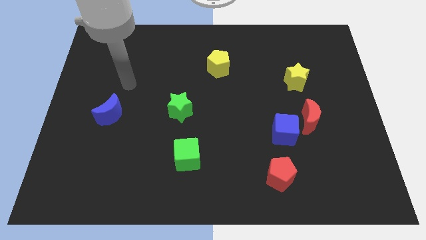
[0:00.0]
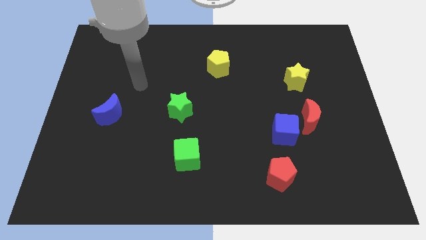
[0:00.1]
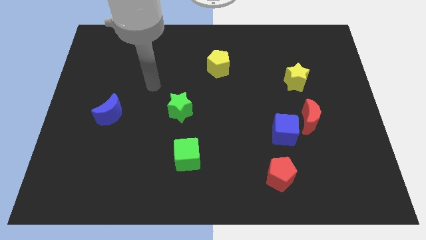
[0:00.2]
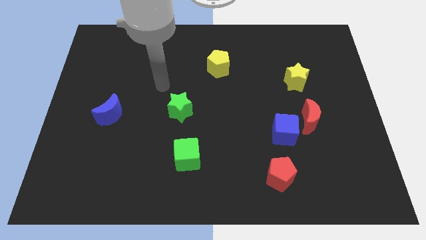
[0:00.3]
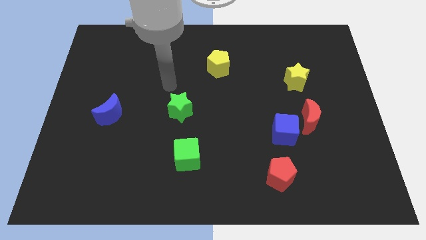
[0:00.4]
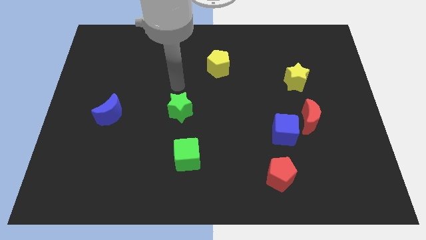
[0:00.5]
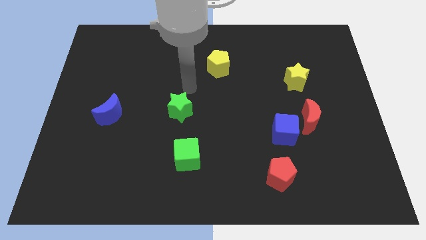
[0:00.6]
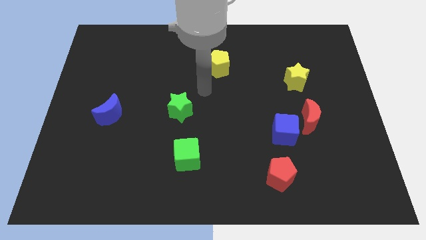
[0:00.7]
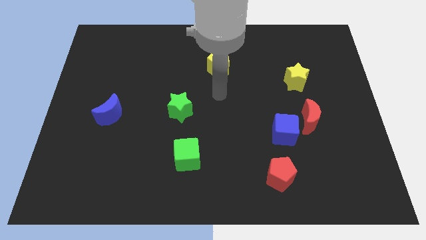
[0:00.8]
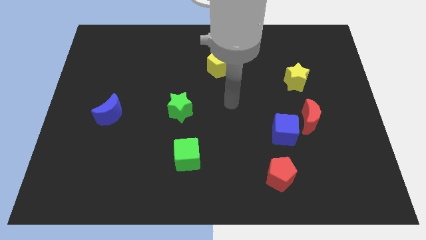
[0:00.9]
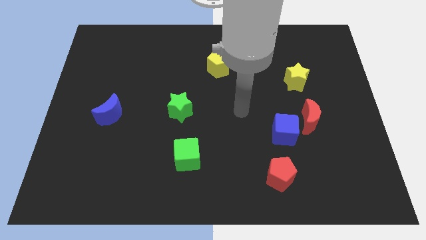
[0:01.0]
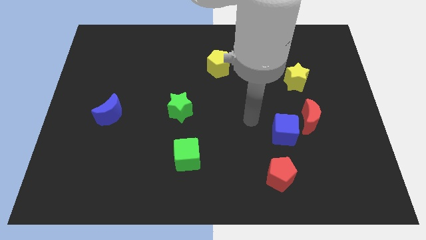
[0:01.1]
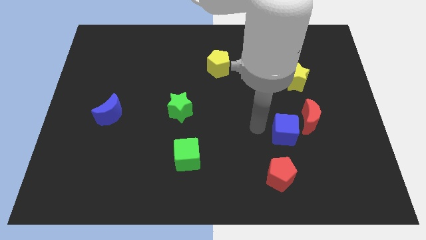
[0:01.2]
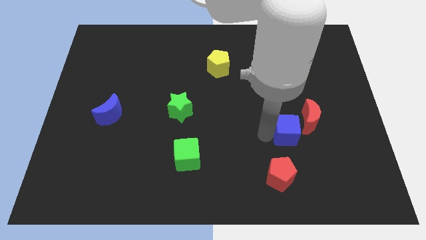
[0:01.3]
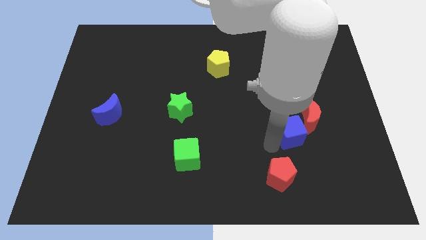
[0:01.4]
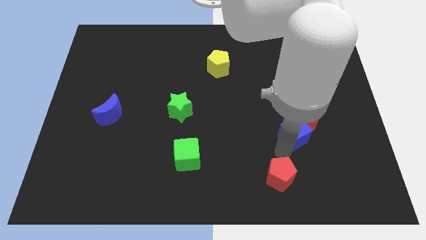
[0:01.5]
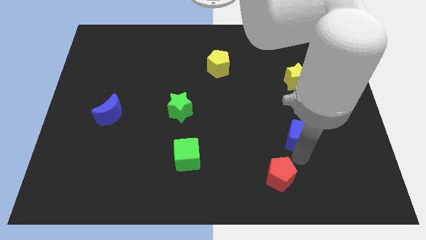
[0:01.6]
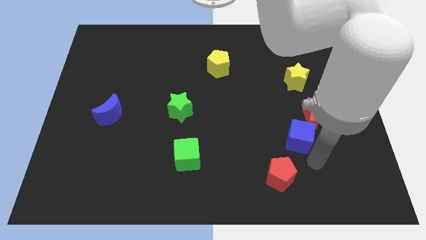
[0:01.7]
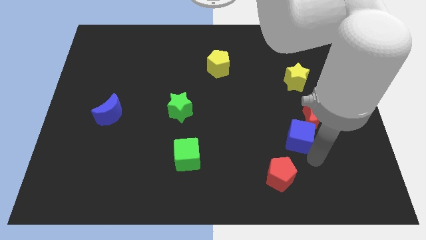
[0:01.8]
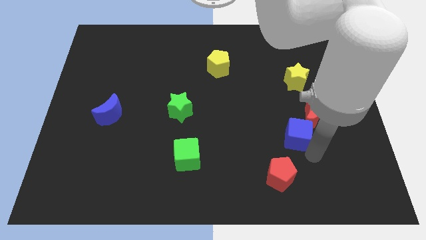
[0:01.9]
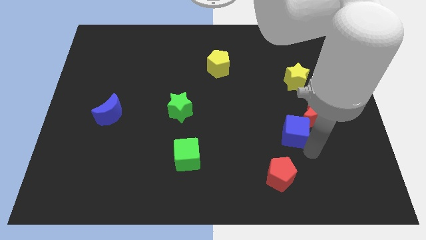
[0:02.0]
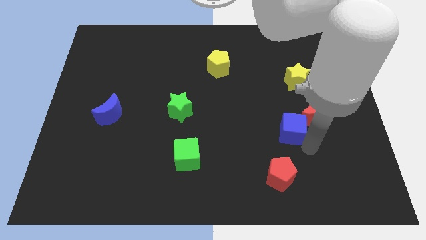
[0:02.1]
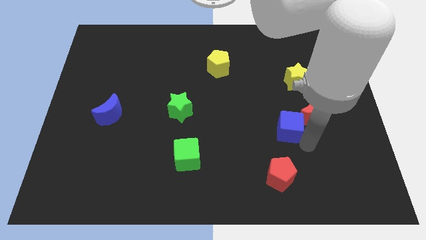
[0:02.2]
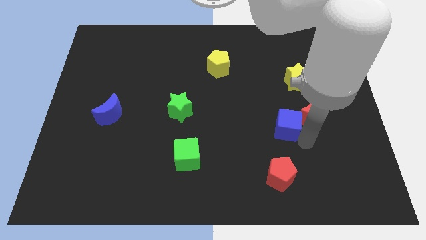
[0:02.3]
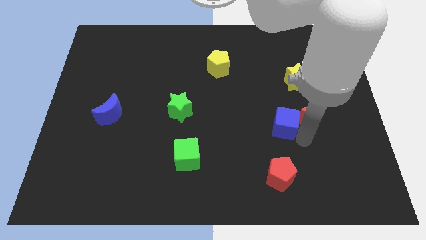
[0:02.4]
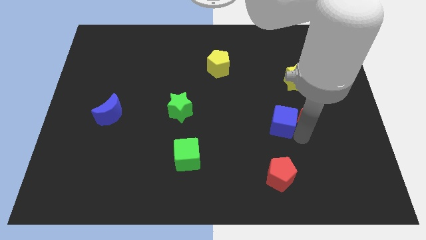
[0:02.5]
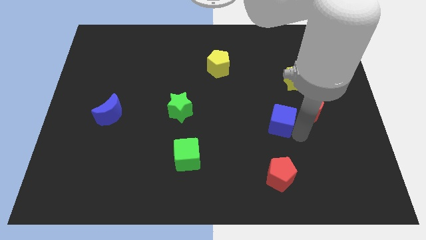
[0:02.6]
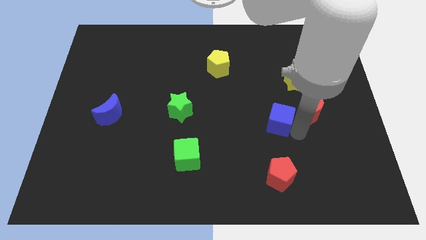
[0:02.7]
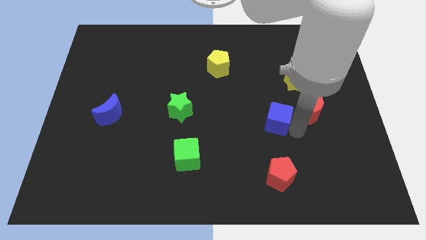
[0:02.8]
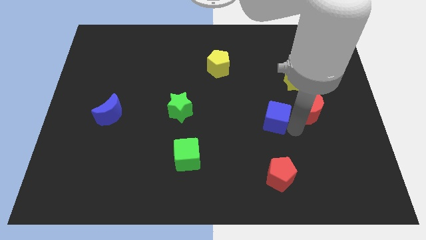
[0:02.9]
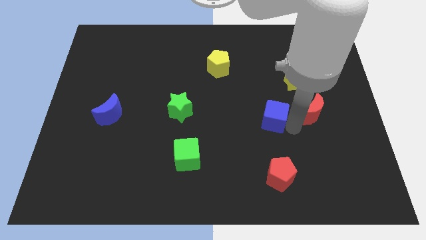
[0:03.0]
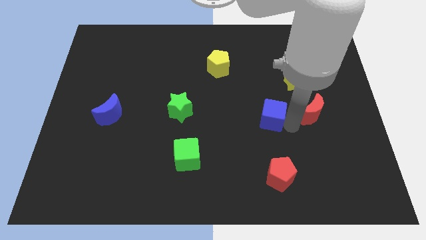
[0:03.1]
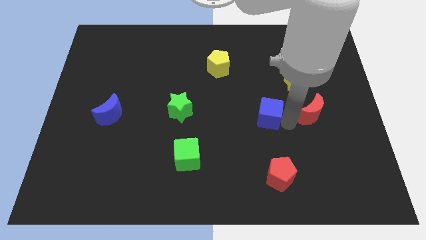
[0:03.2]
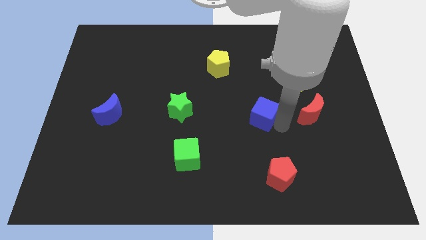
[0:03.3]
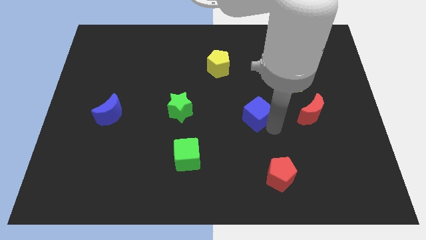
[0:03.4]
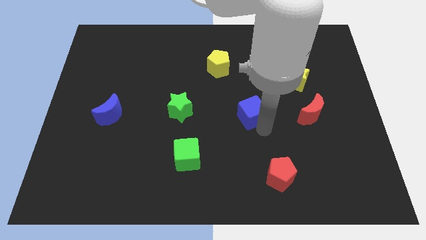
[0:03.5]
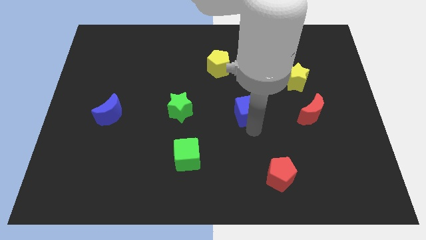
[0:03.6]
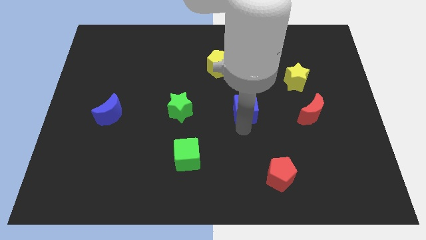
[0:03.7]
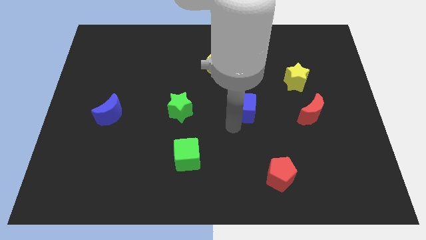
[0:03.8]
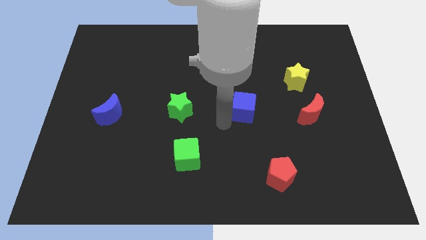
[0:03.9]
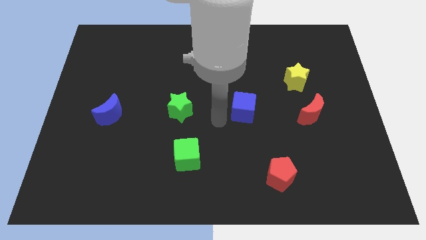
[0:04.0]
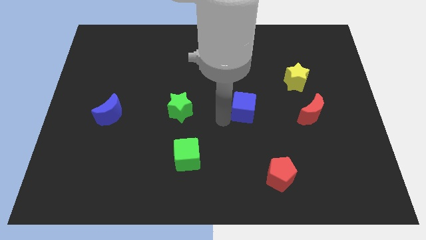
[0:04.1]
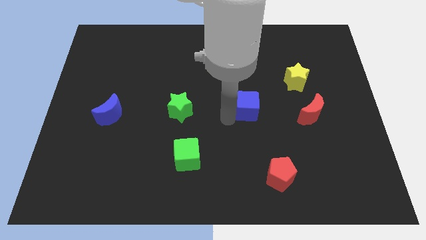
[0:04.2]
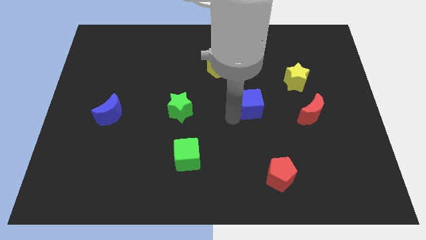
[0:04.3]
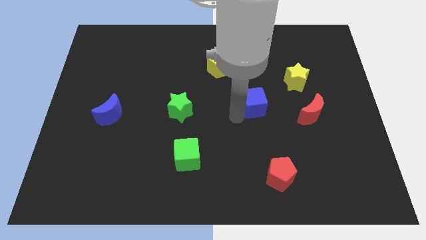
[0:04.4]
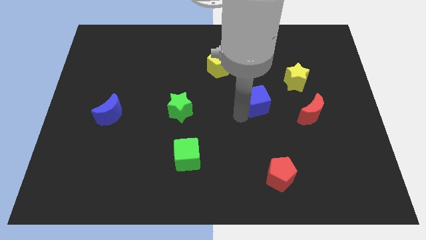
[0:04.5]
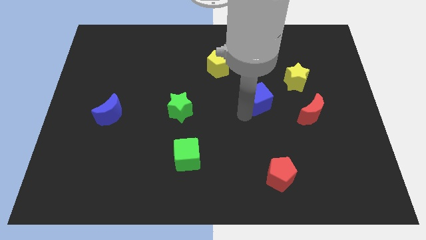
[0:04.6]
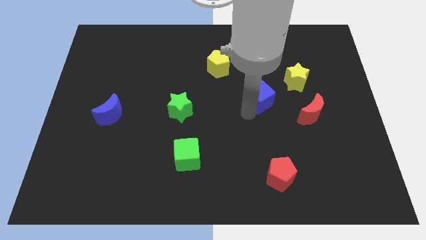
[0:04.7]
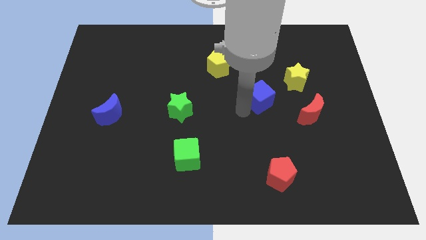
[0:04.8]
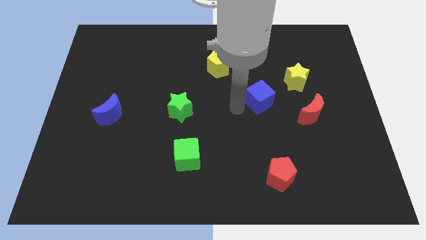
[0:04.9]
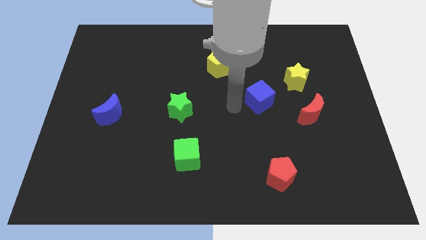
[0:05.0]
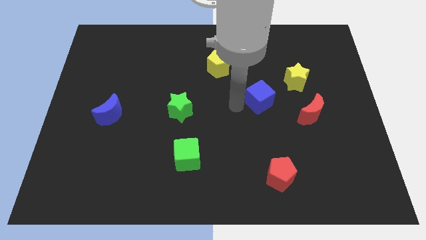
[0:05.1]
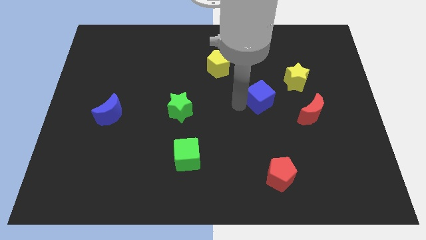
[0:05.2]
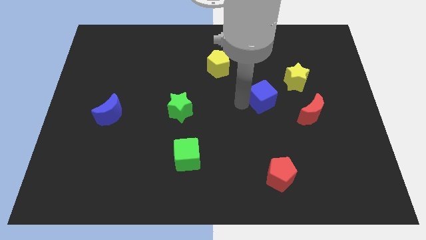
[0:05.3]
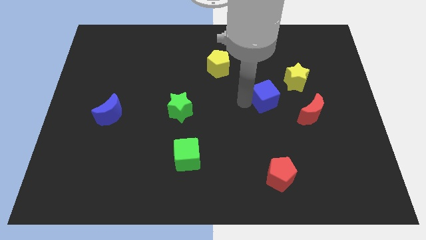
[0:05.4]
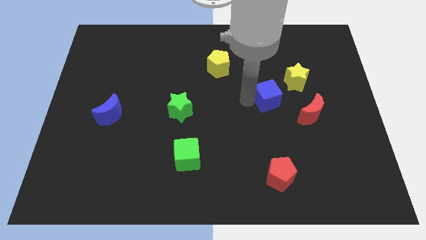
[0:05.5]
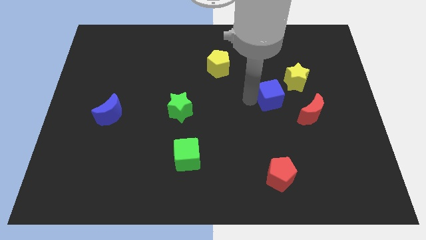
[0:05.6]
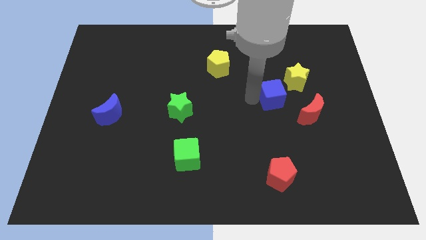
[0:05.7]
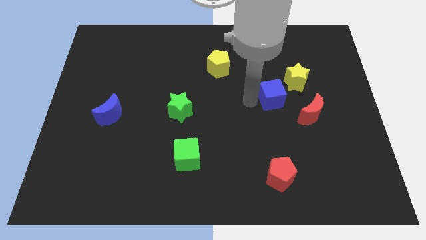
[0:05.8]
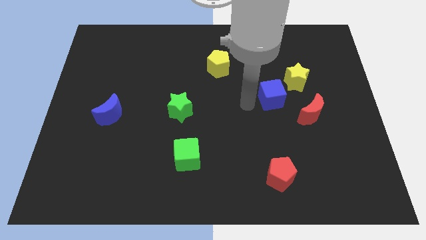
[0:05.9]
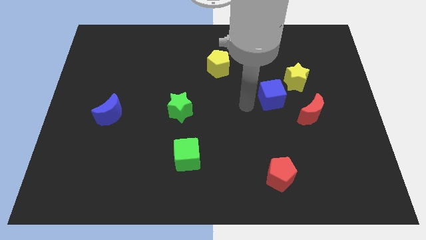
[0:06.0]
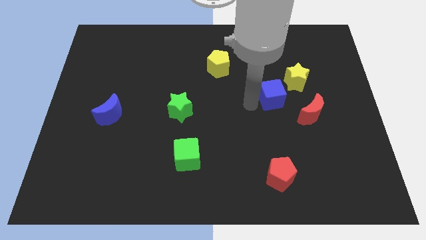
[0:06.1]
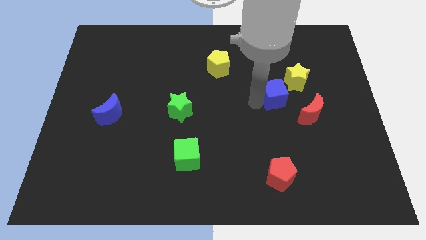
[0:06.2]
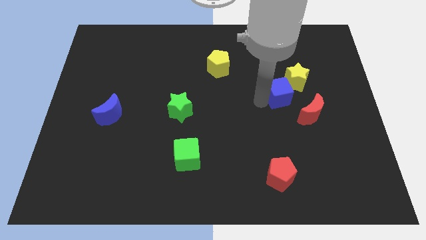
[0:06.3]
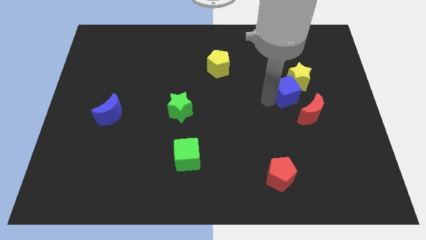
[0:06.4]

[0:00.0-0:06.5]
move the blue cube towards the yellow star

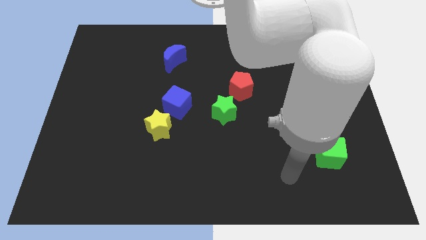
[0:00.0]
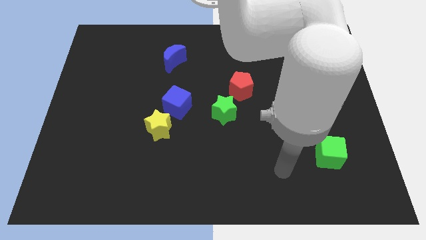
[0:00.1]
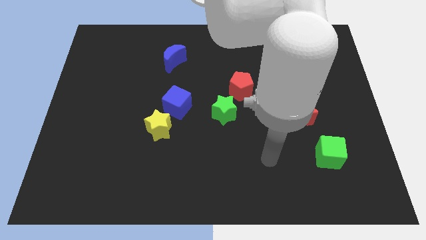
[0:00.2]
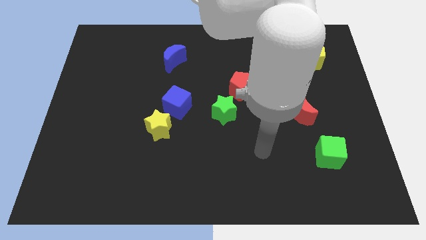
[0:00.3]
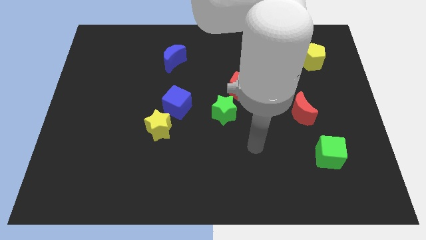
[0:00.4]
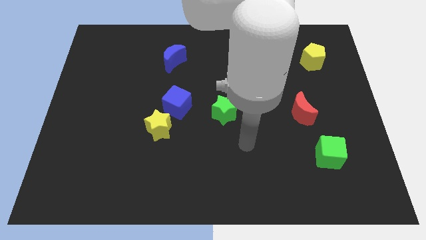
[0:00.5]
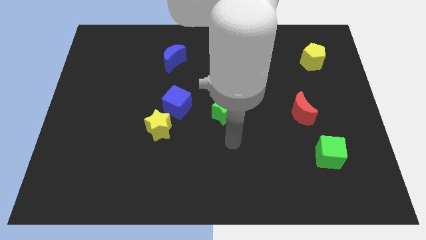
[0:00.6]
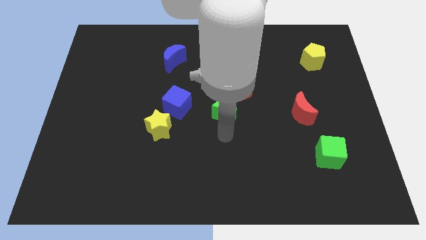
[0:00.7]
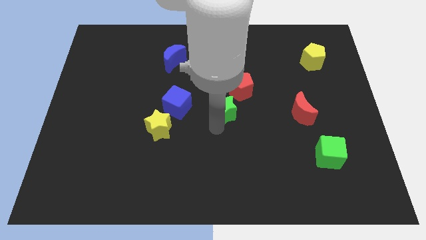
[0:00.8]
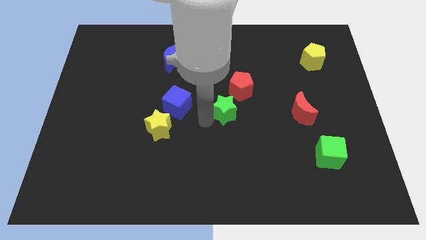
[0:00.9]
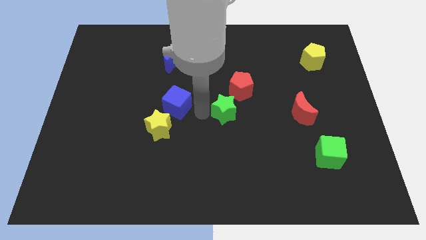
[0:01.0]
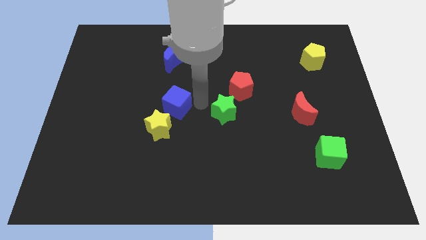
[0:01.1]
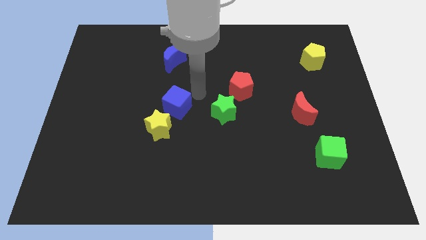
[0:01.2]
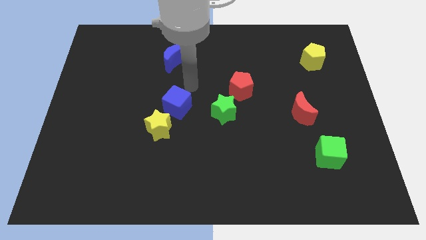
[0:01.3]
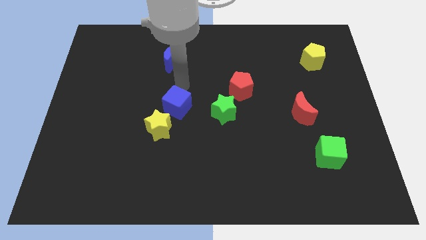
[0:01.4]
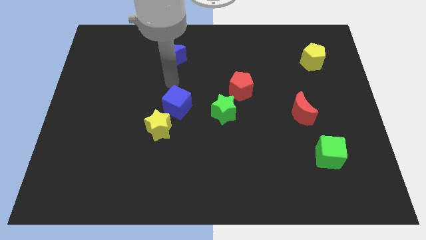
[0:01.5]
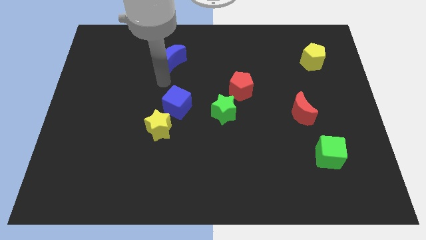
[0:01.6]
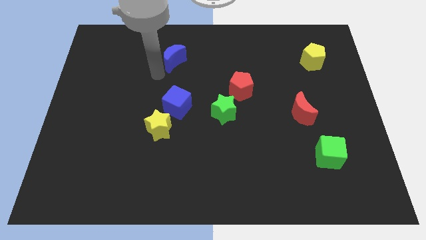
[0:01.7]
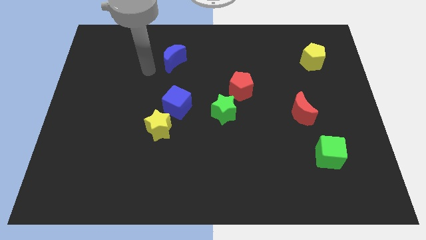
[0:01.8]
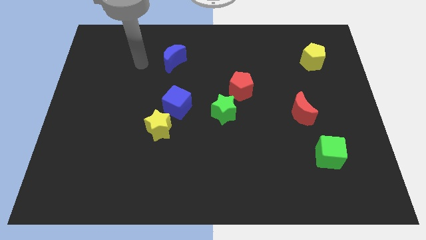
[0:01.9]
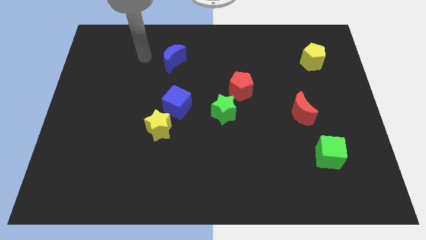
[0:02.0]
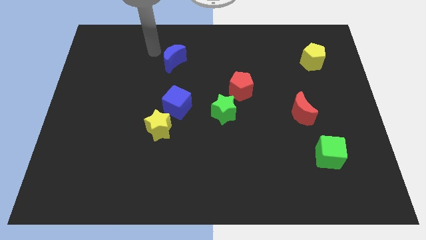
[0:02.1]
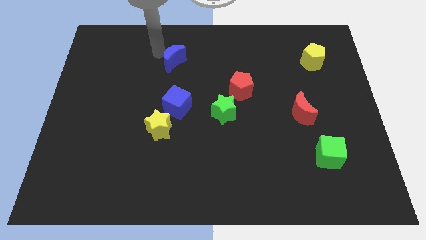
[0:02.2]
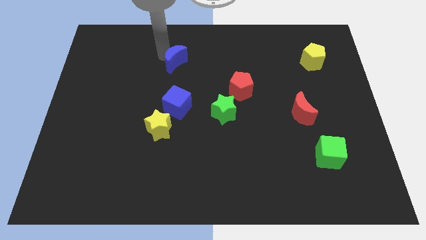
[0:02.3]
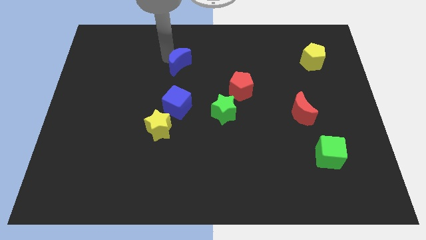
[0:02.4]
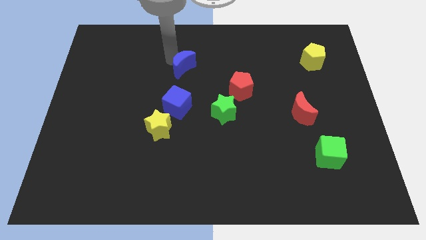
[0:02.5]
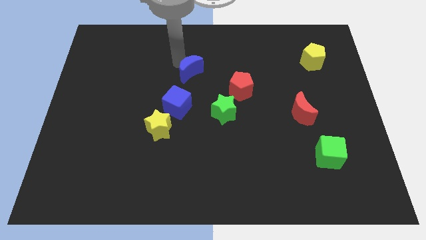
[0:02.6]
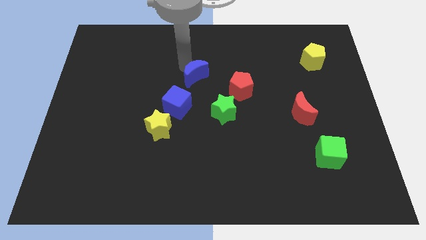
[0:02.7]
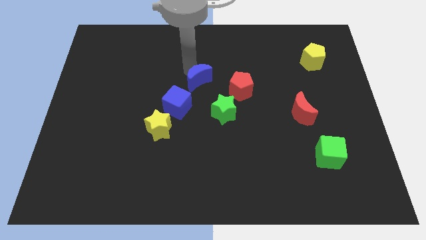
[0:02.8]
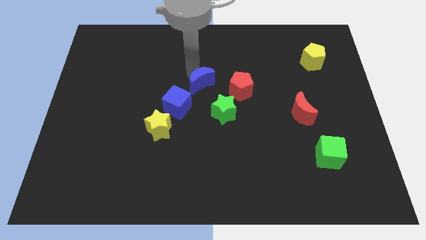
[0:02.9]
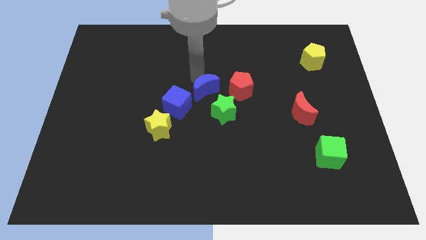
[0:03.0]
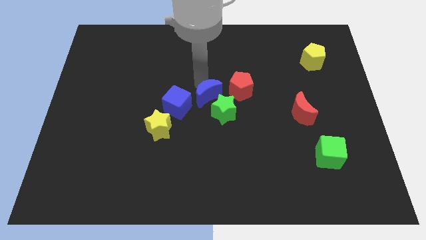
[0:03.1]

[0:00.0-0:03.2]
slide the blue moon to the green star
